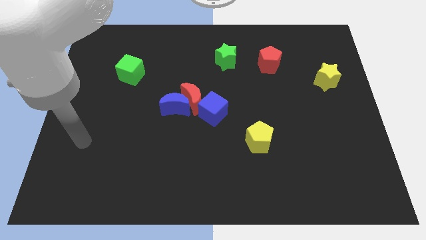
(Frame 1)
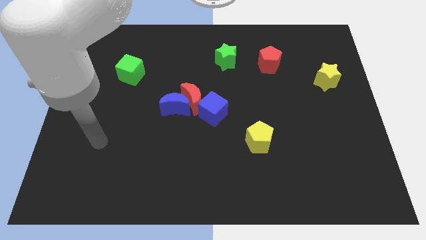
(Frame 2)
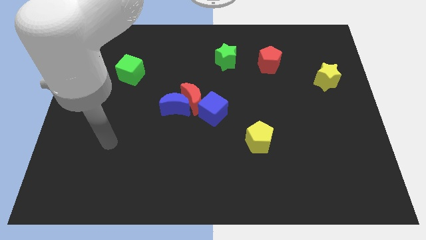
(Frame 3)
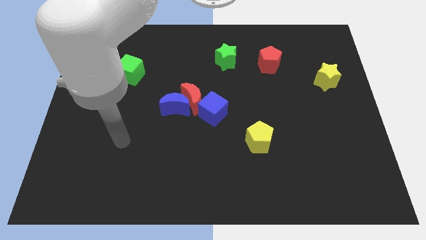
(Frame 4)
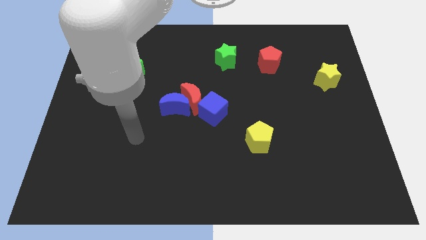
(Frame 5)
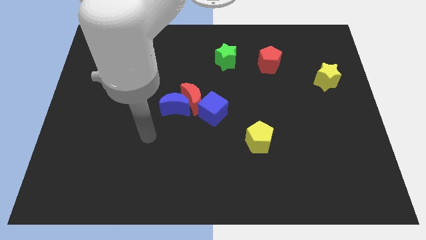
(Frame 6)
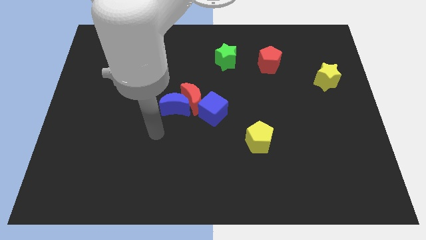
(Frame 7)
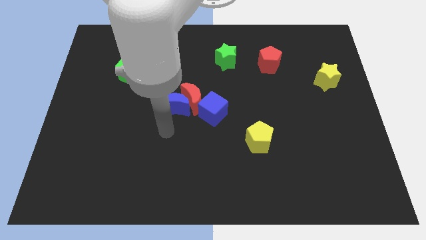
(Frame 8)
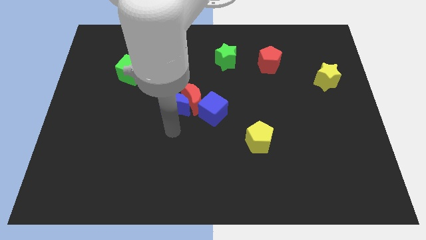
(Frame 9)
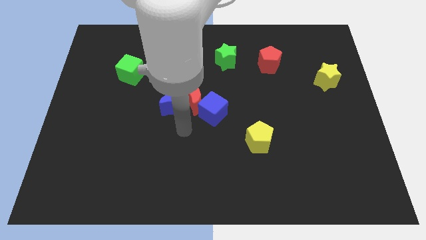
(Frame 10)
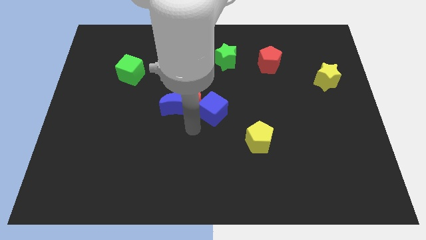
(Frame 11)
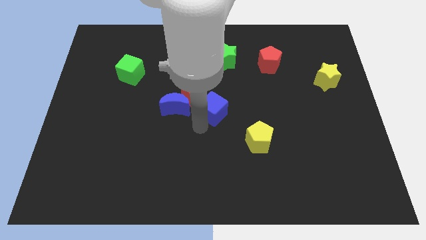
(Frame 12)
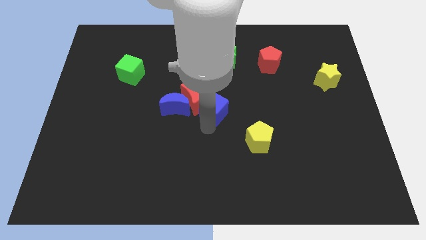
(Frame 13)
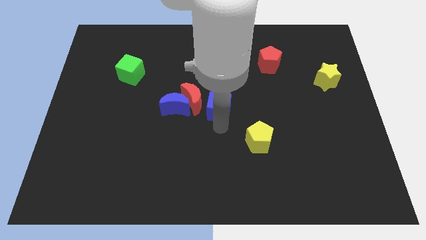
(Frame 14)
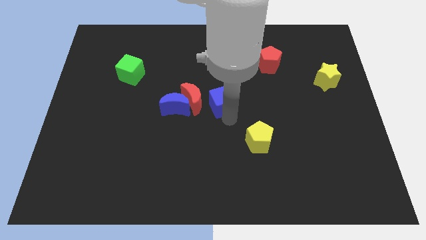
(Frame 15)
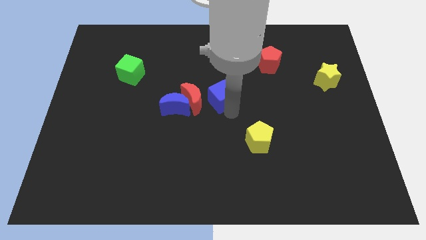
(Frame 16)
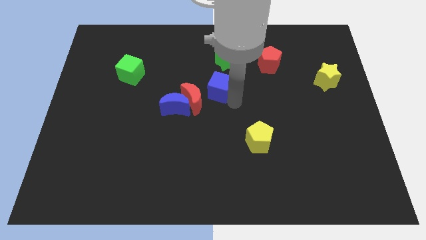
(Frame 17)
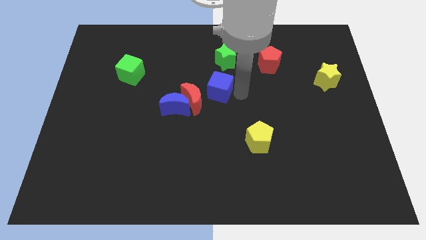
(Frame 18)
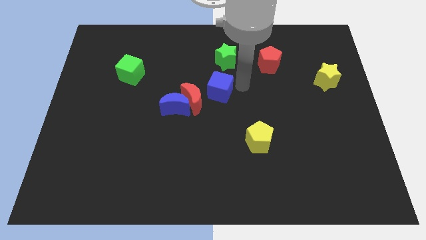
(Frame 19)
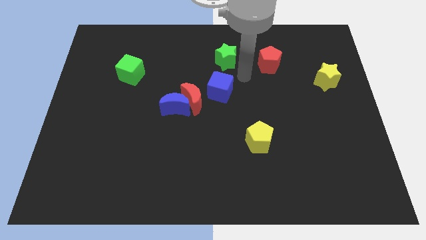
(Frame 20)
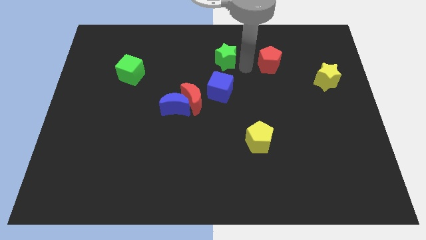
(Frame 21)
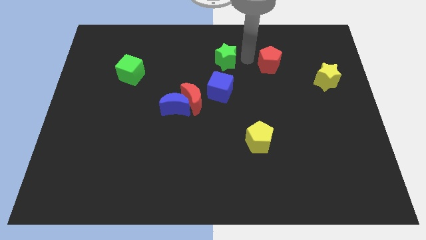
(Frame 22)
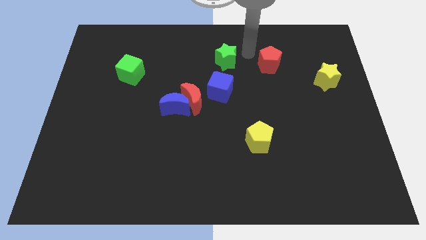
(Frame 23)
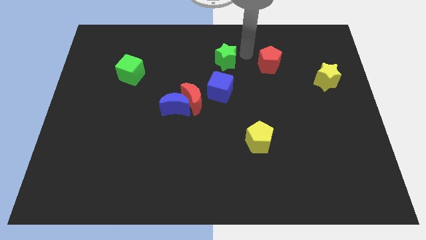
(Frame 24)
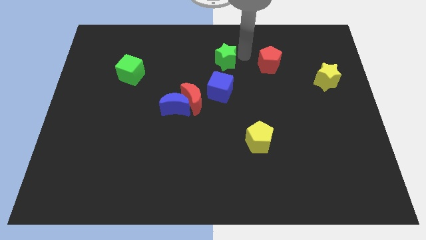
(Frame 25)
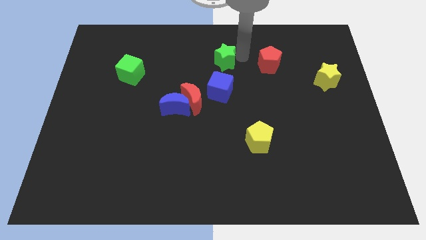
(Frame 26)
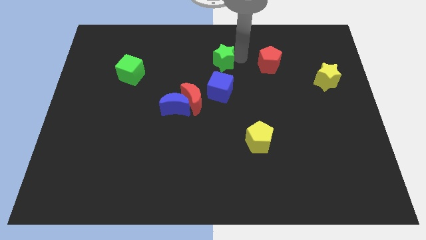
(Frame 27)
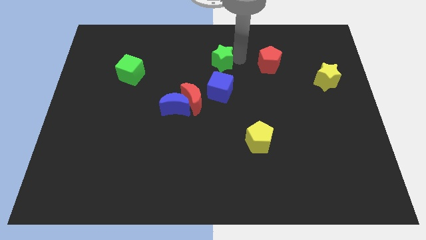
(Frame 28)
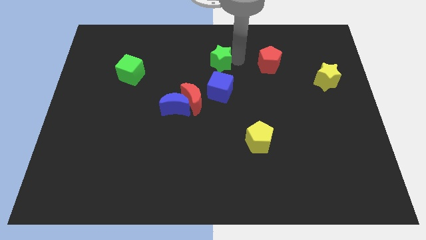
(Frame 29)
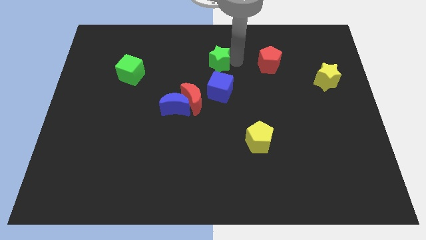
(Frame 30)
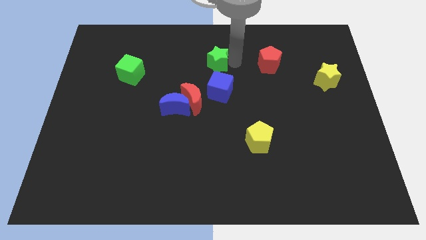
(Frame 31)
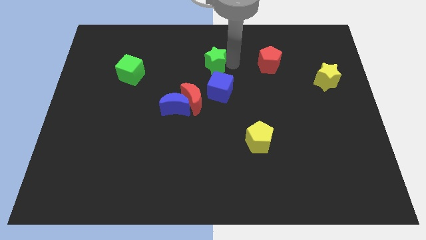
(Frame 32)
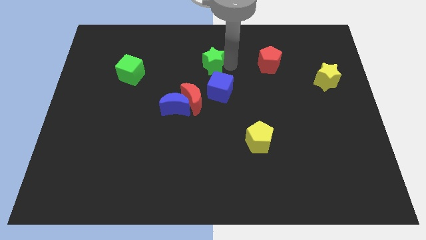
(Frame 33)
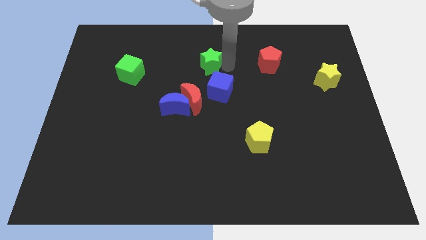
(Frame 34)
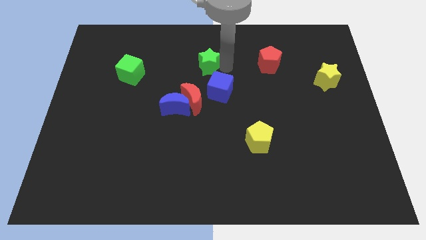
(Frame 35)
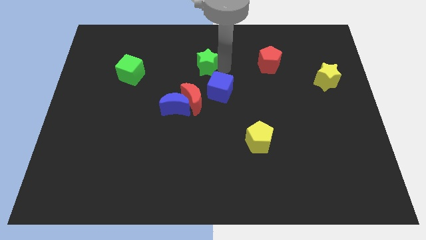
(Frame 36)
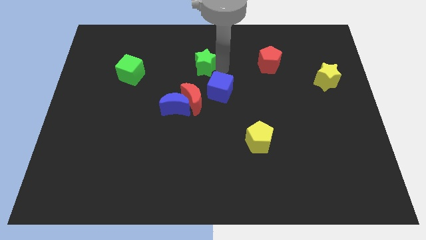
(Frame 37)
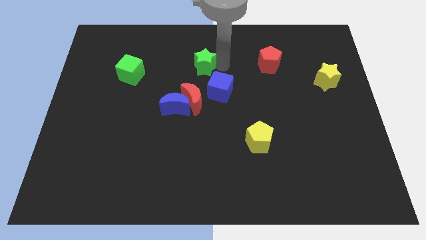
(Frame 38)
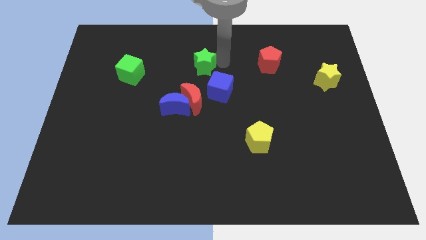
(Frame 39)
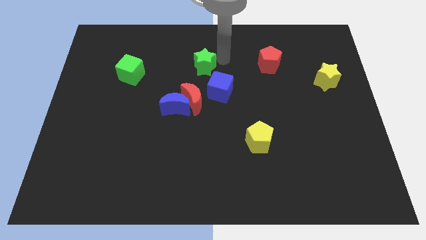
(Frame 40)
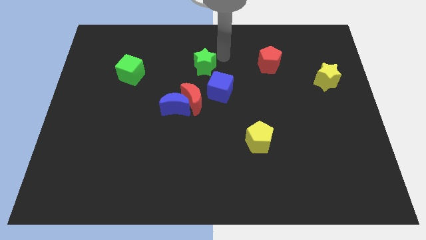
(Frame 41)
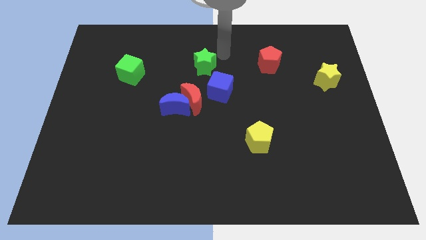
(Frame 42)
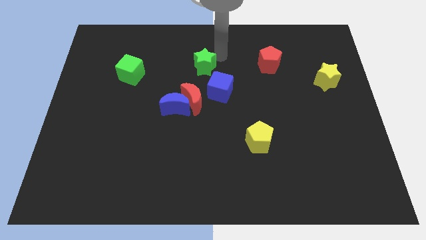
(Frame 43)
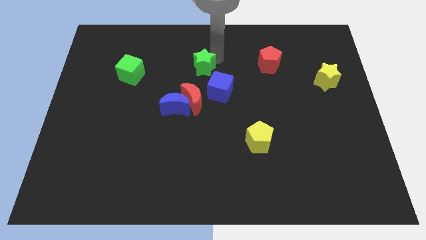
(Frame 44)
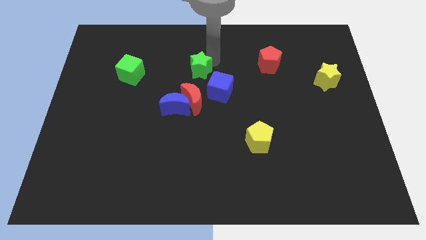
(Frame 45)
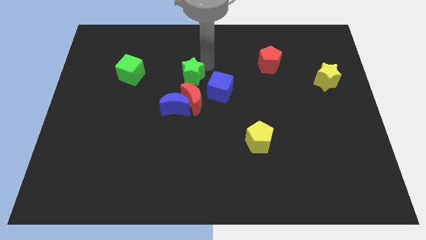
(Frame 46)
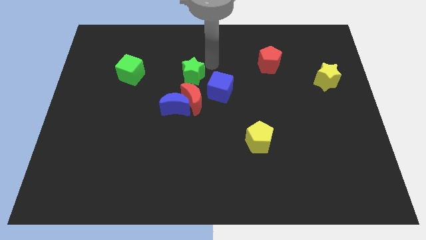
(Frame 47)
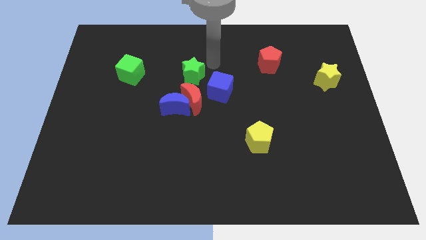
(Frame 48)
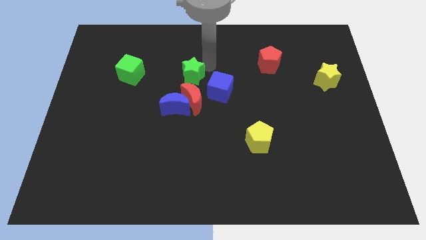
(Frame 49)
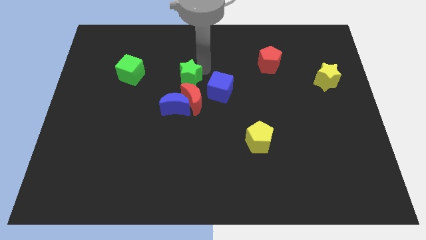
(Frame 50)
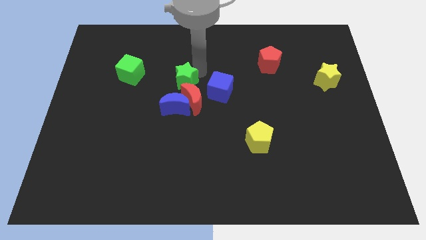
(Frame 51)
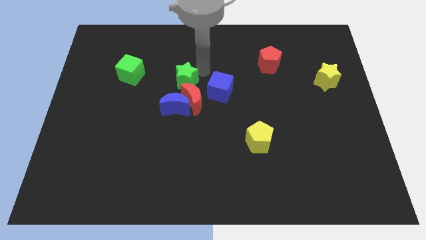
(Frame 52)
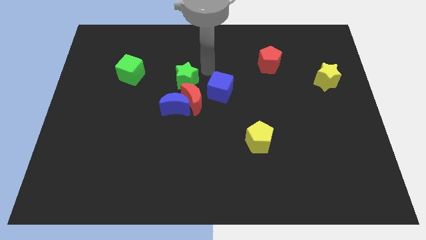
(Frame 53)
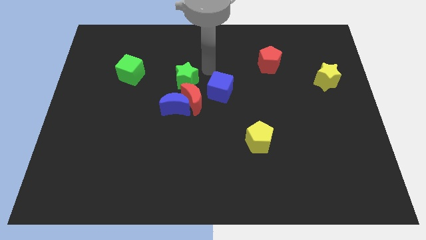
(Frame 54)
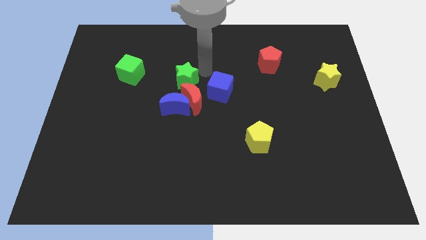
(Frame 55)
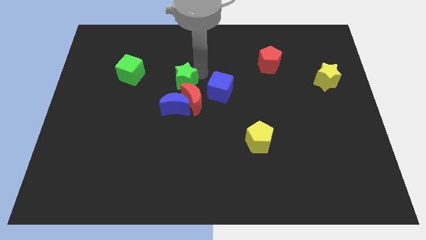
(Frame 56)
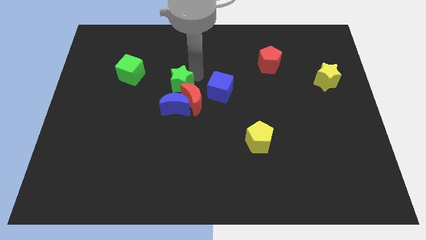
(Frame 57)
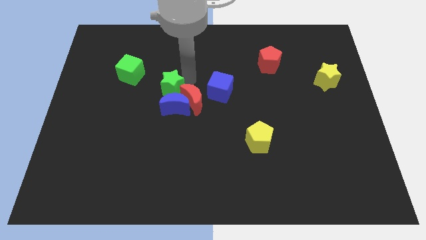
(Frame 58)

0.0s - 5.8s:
move the green star just left of the red moon
